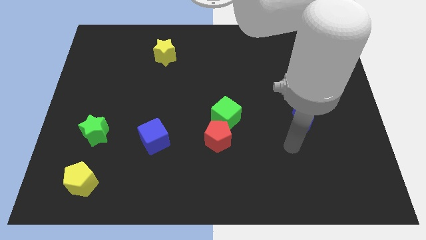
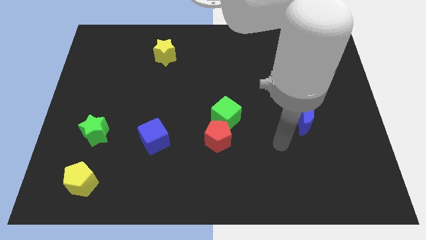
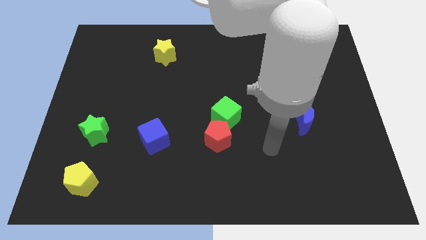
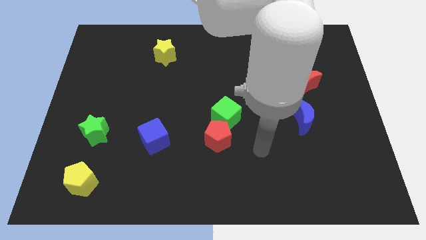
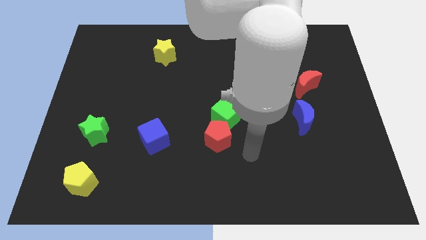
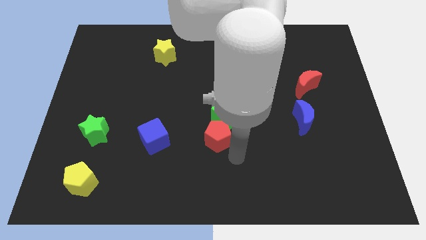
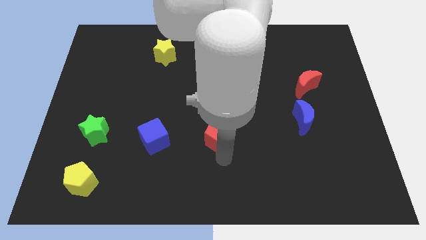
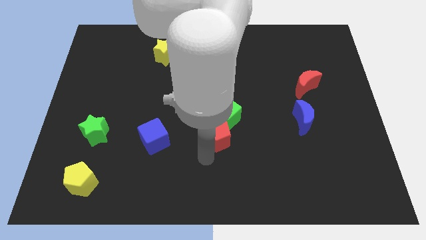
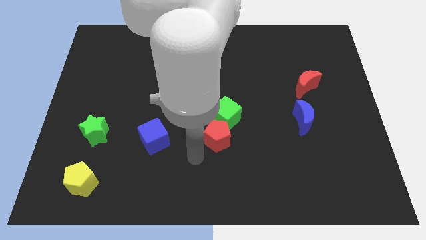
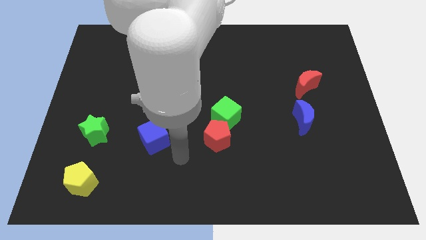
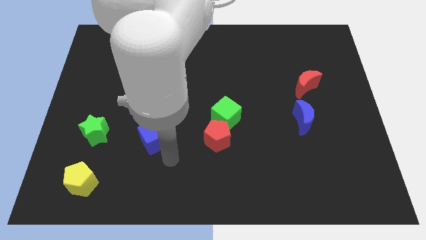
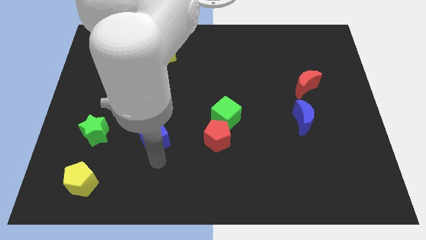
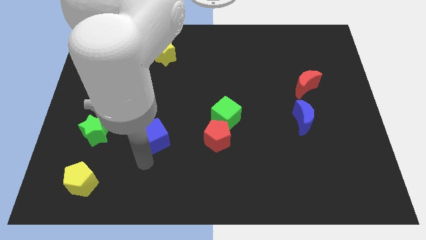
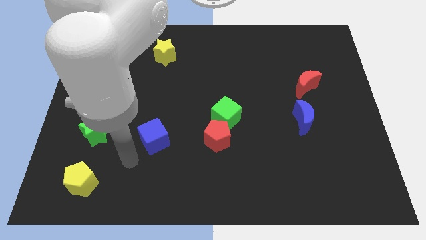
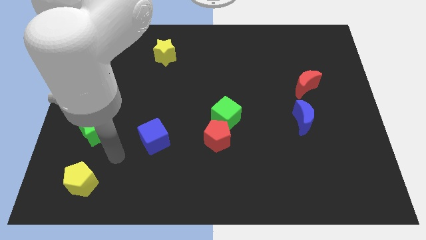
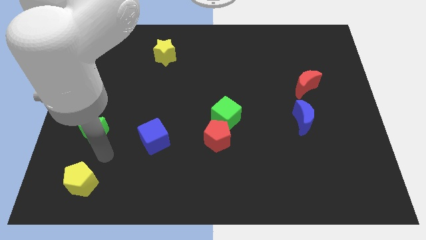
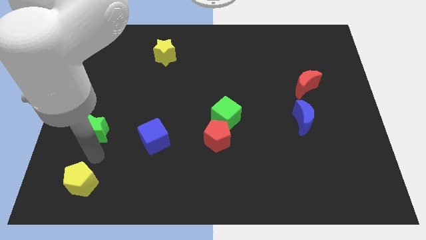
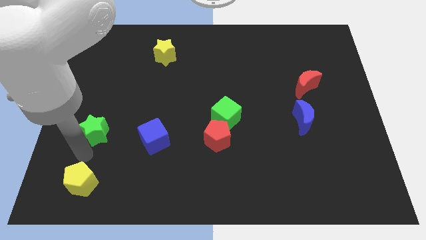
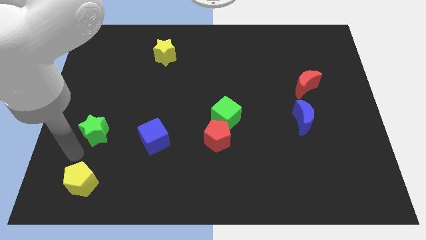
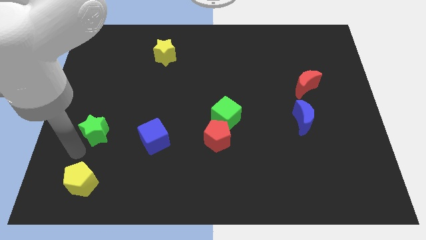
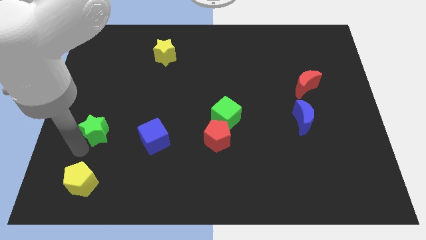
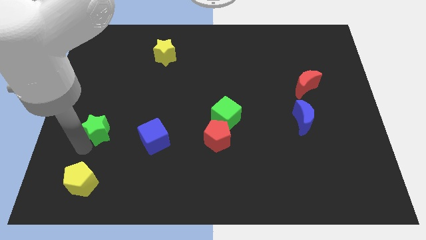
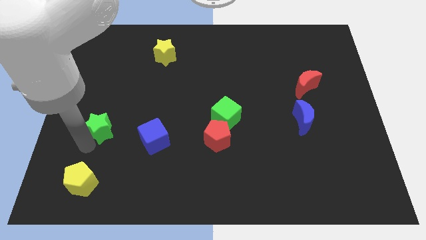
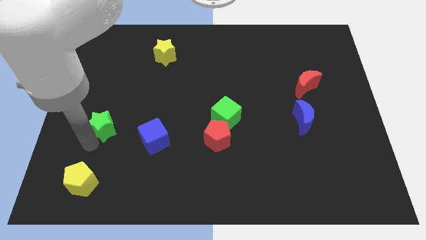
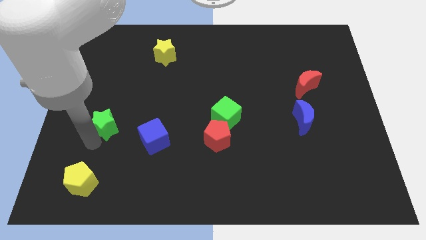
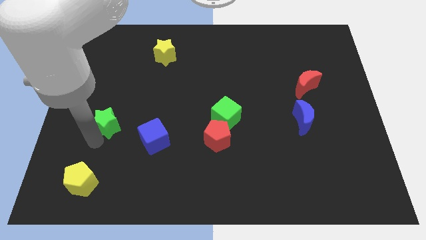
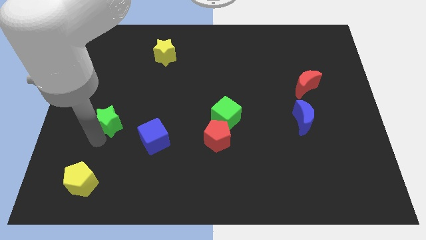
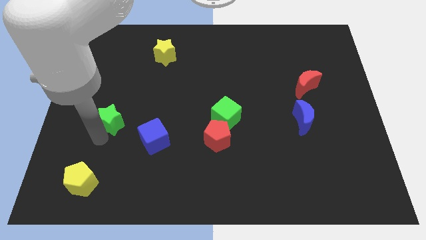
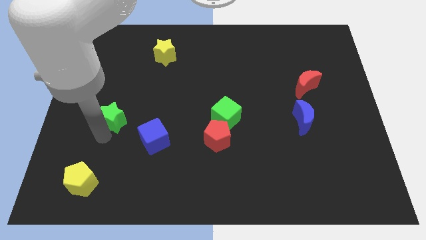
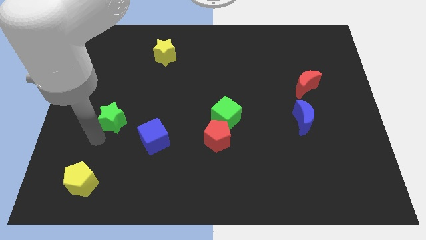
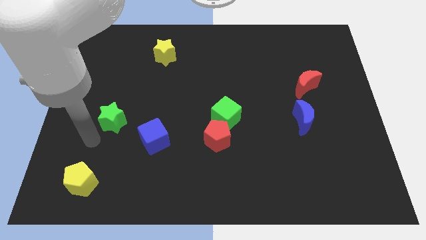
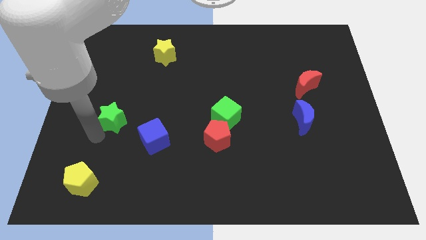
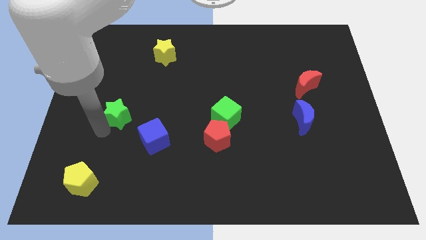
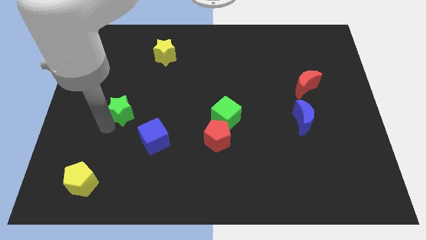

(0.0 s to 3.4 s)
slide the green star slightly diagonally upwards and to the right

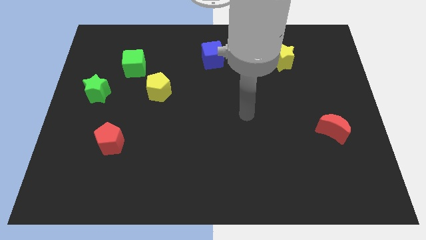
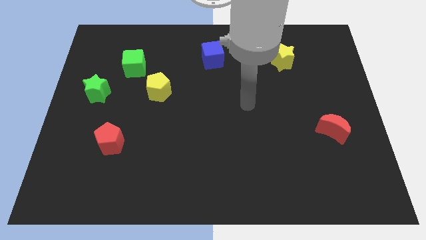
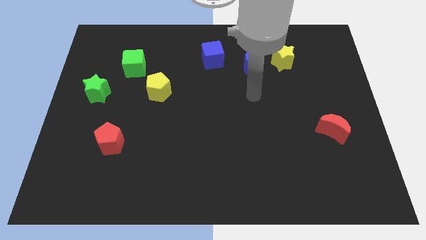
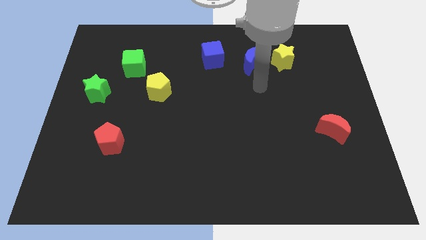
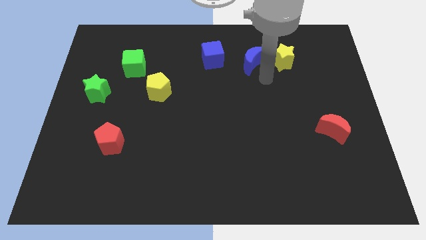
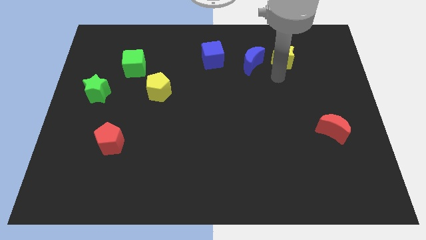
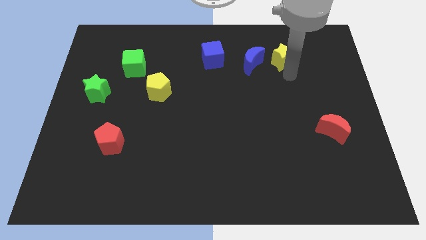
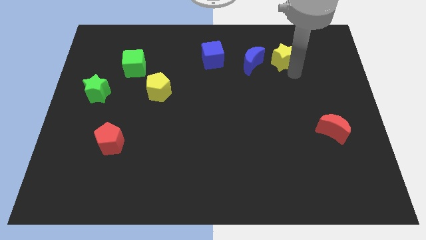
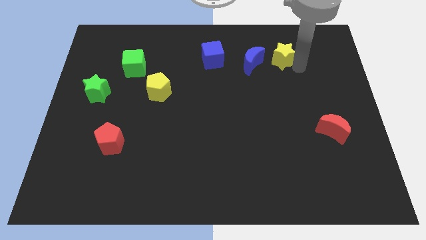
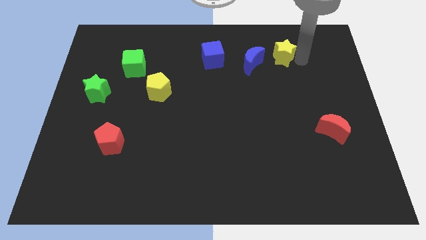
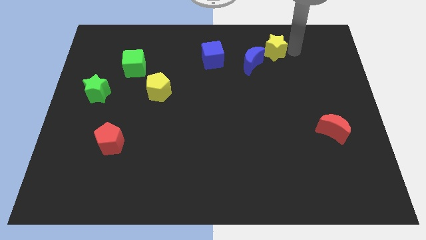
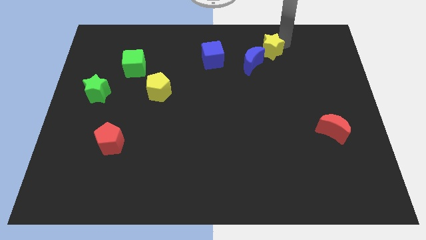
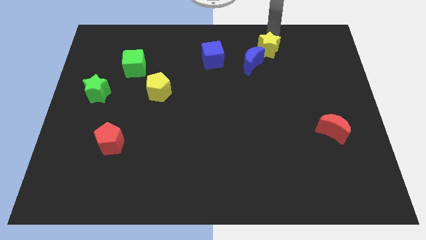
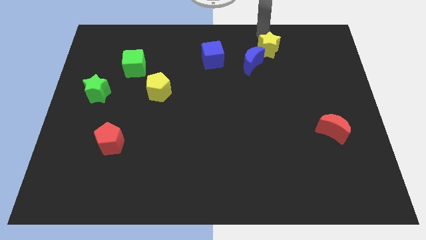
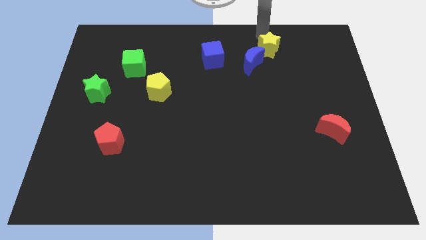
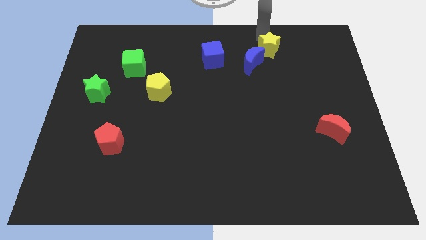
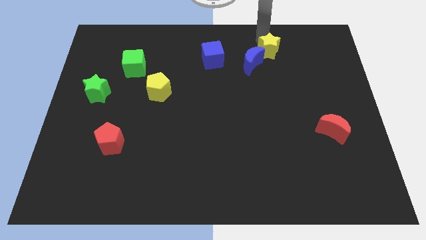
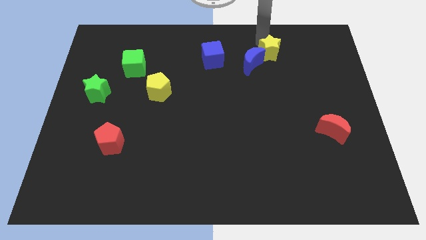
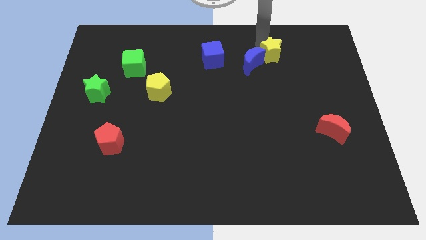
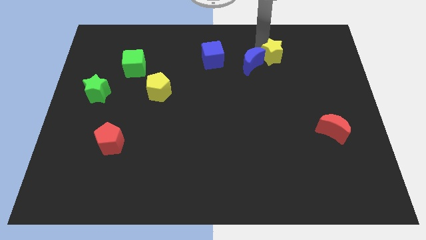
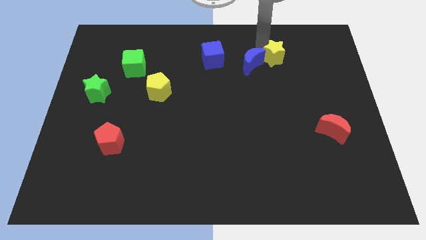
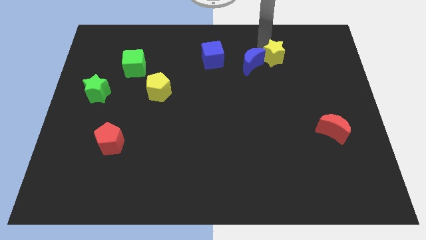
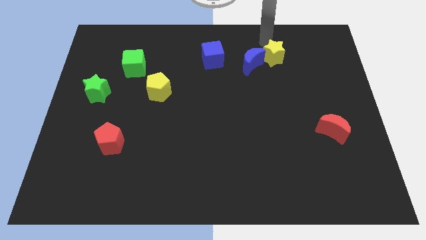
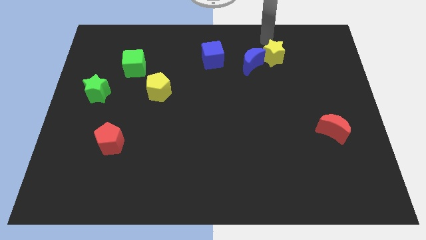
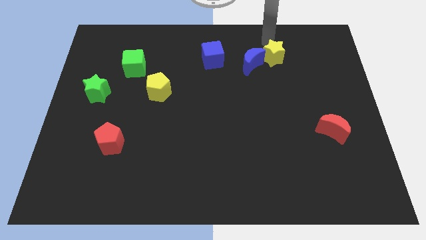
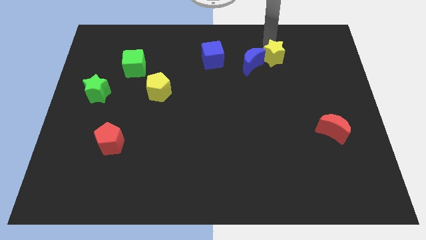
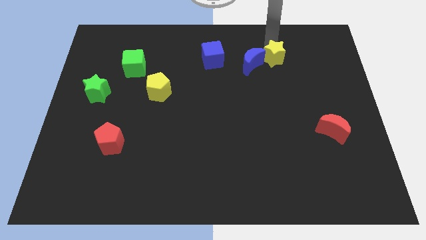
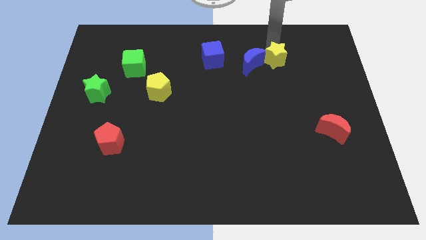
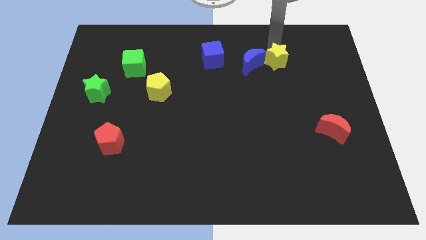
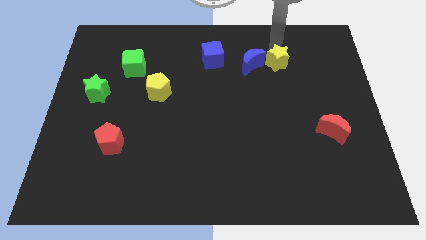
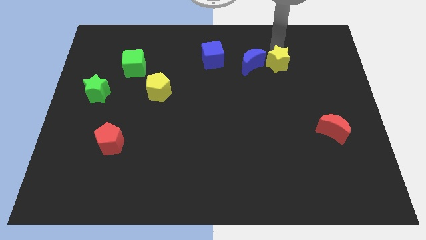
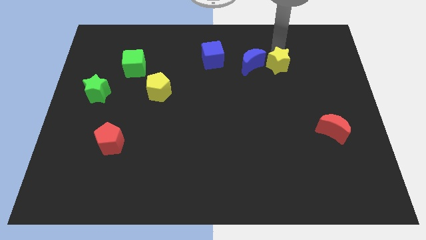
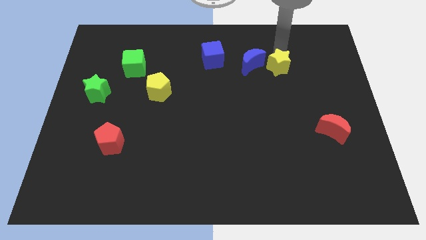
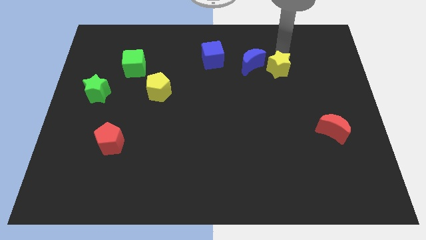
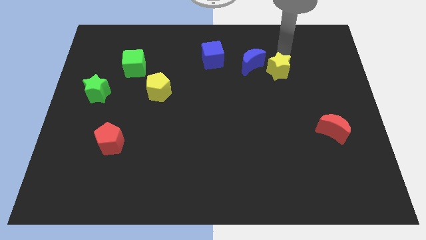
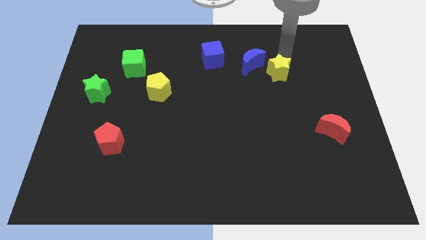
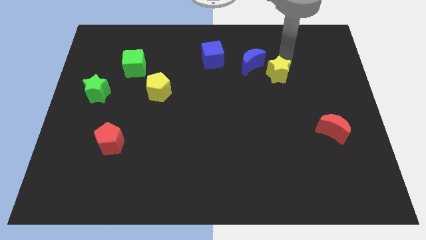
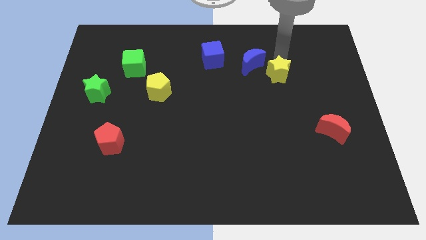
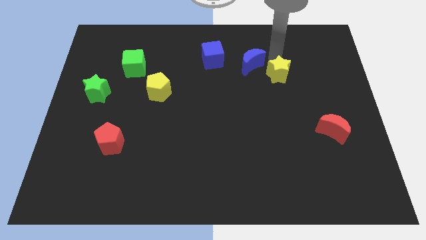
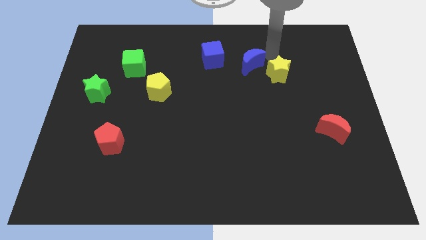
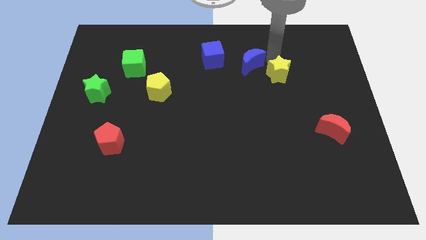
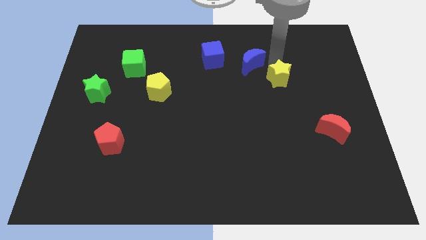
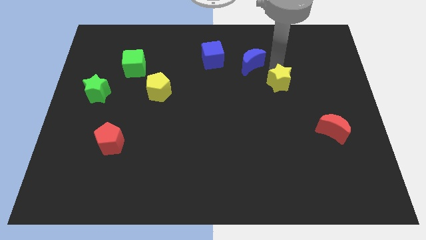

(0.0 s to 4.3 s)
slightly slide the yellow star down

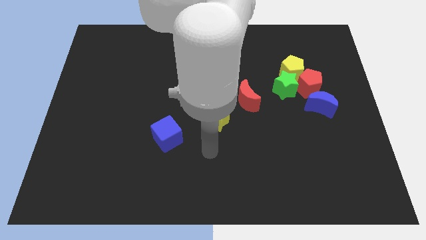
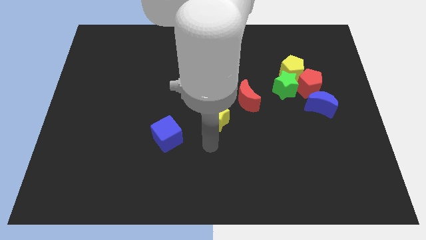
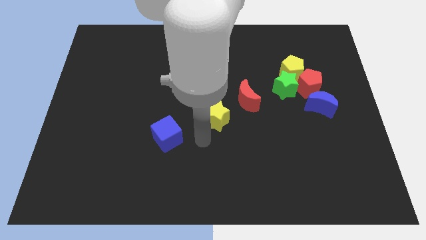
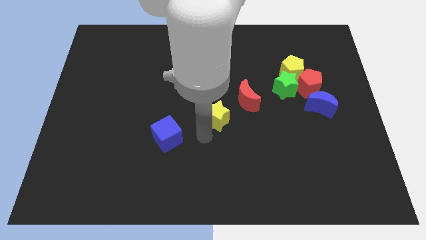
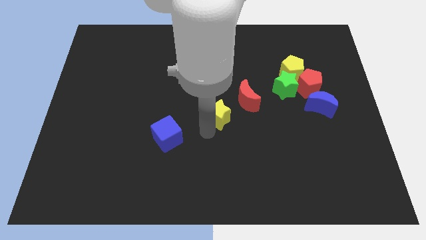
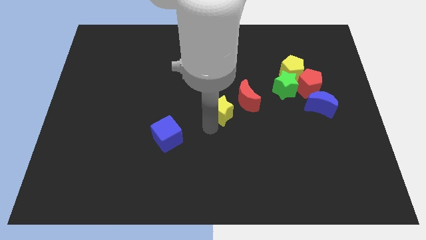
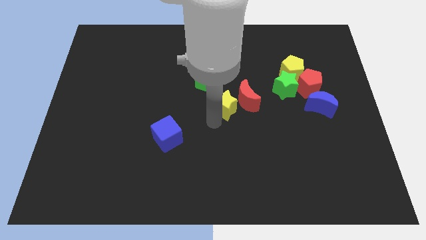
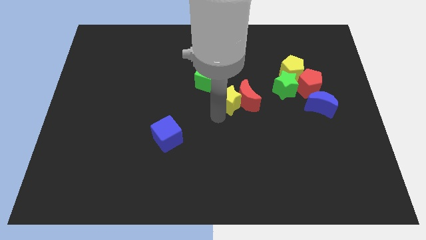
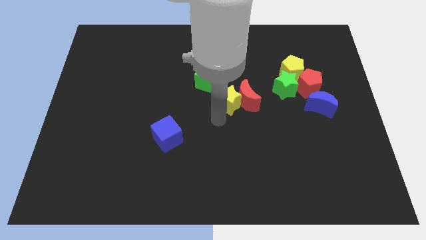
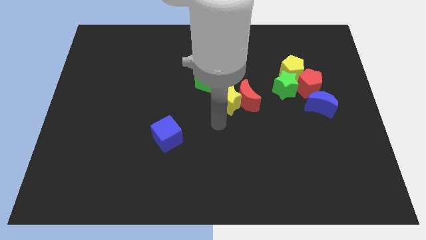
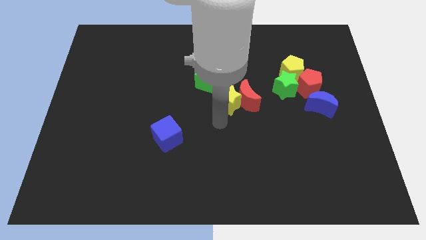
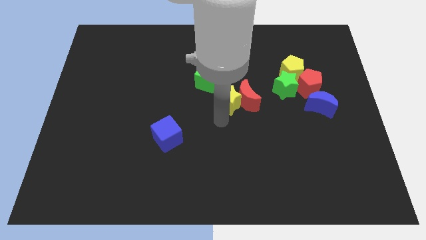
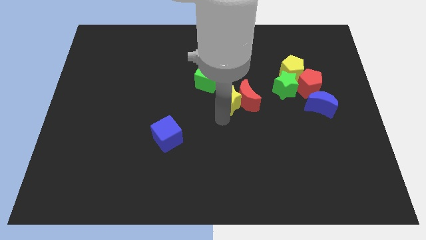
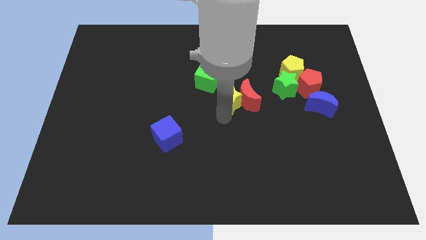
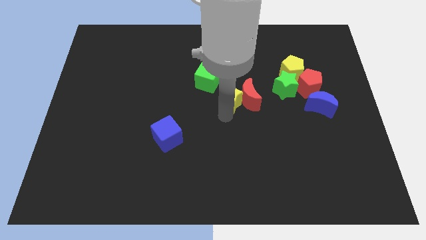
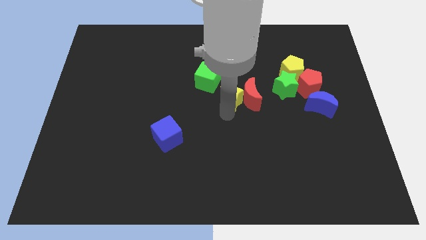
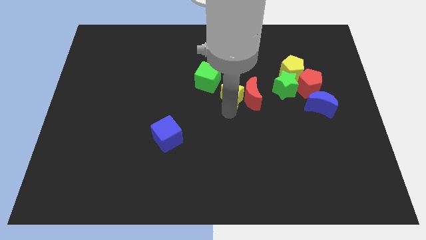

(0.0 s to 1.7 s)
slide the yellow star upwards and then right a little
